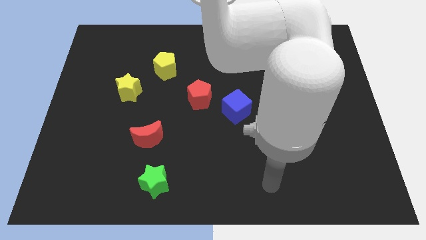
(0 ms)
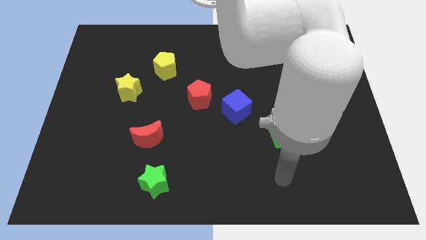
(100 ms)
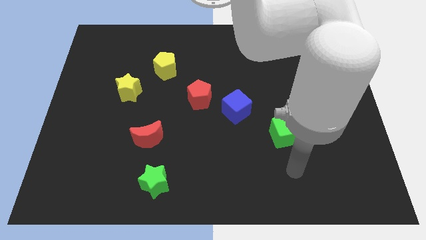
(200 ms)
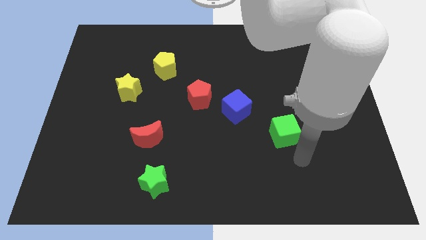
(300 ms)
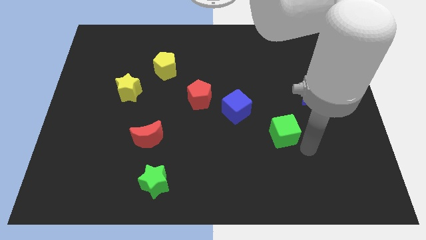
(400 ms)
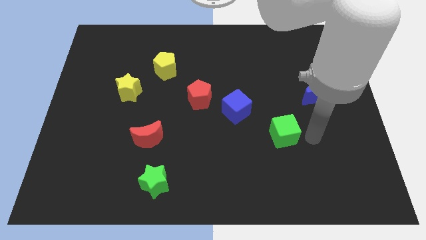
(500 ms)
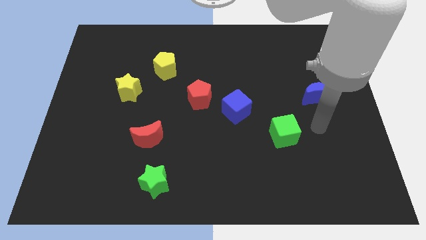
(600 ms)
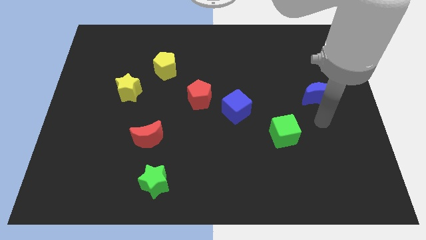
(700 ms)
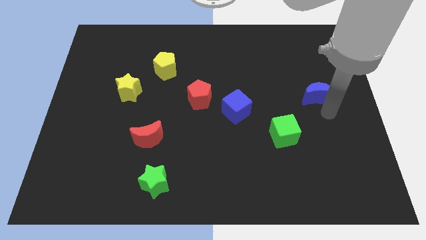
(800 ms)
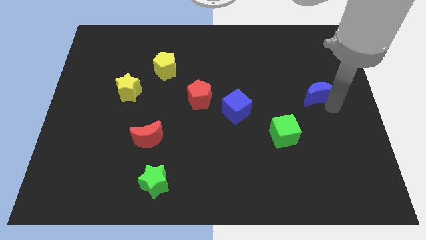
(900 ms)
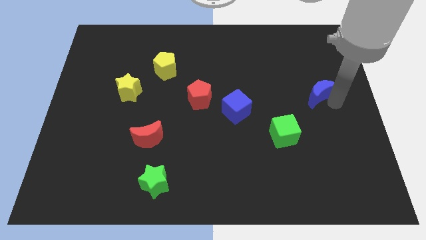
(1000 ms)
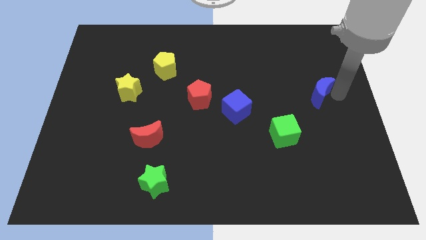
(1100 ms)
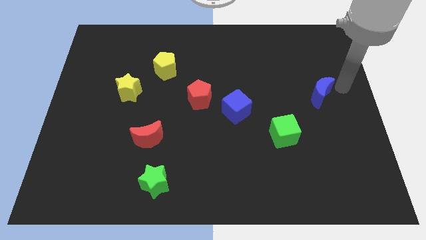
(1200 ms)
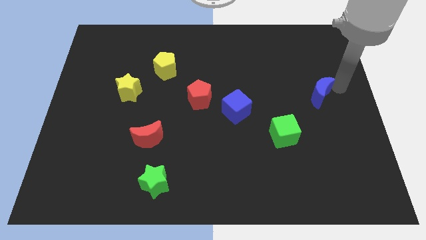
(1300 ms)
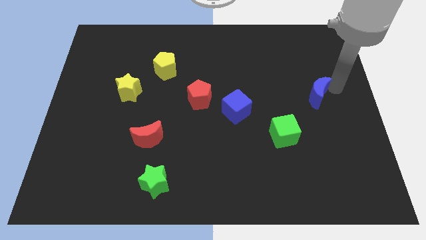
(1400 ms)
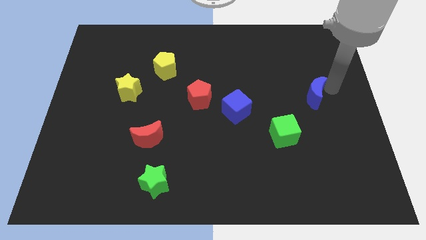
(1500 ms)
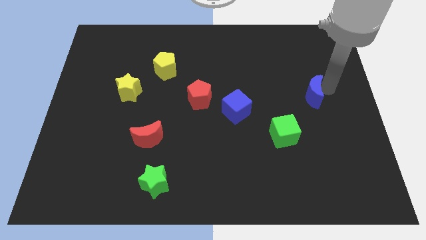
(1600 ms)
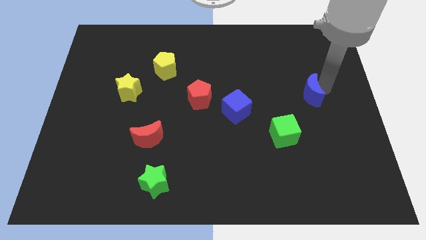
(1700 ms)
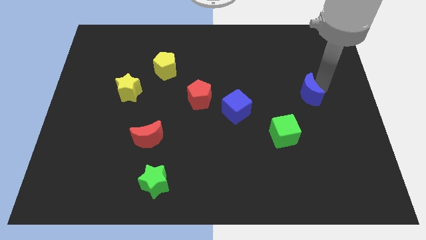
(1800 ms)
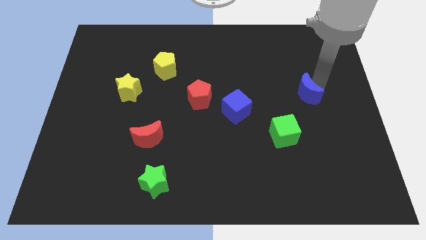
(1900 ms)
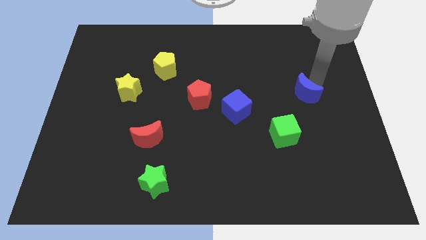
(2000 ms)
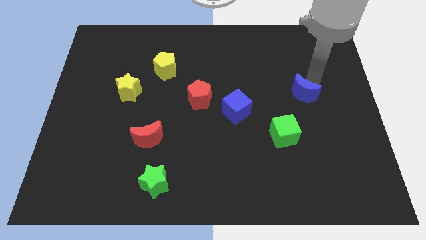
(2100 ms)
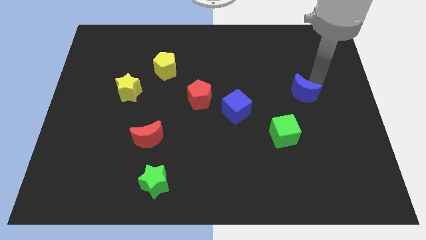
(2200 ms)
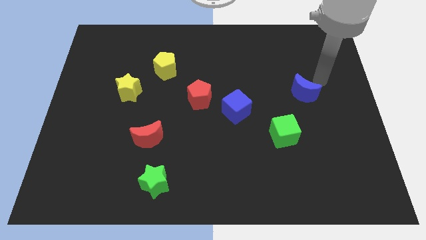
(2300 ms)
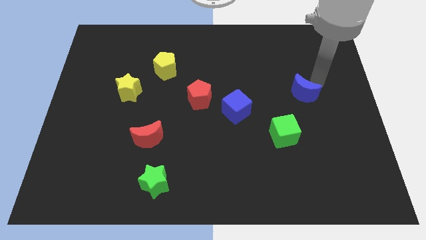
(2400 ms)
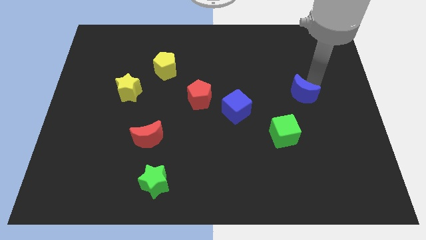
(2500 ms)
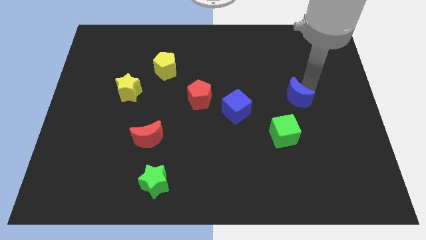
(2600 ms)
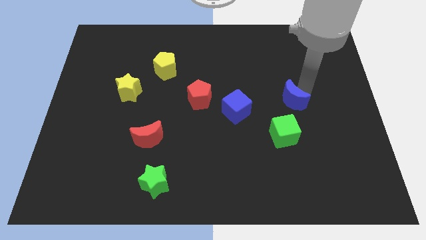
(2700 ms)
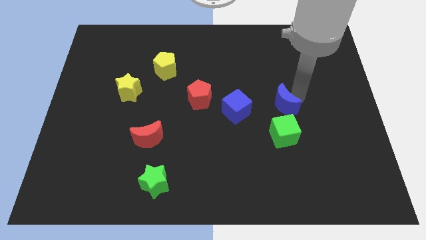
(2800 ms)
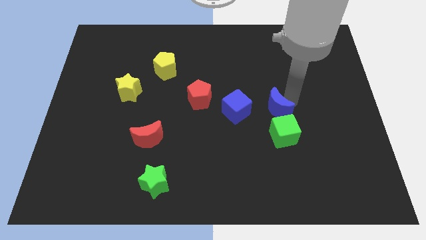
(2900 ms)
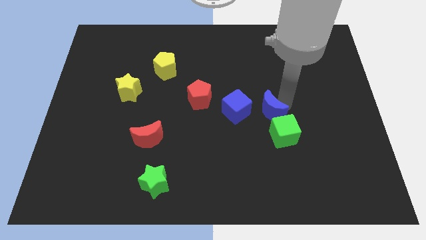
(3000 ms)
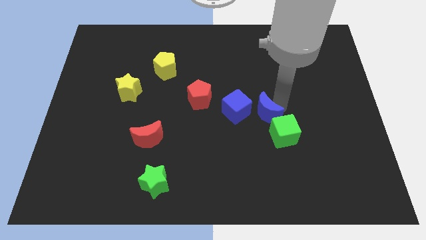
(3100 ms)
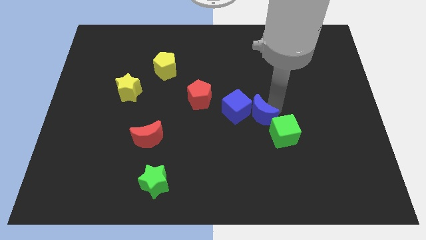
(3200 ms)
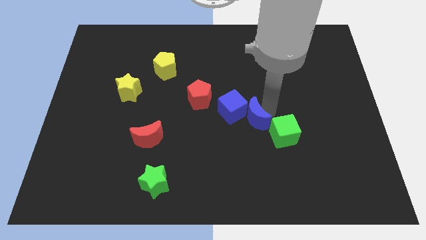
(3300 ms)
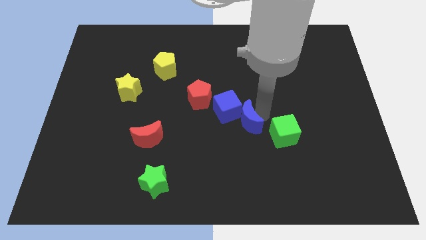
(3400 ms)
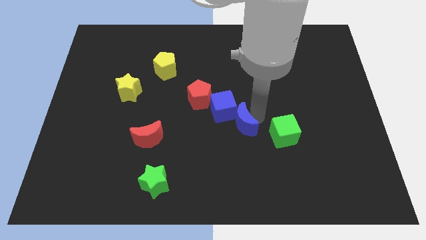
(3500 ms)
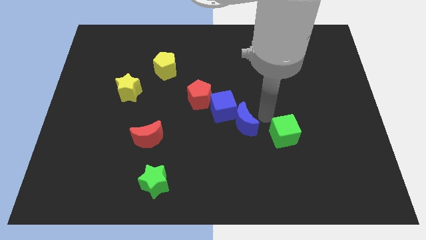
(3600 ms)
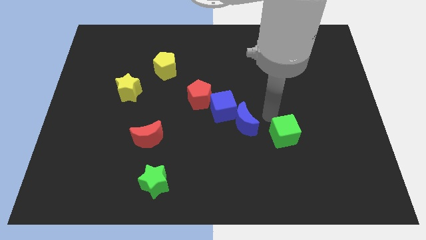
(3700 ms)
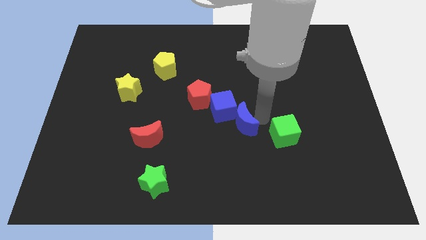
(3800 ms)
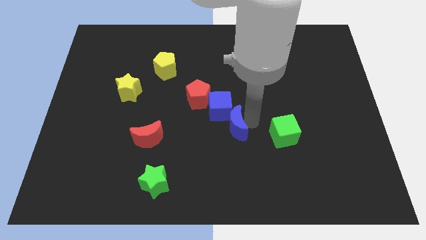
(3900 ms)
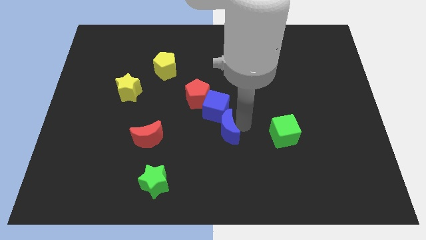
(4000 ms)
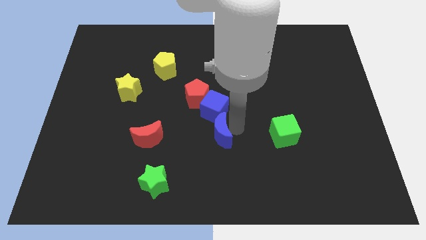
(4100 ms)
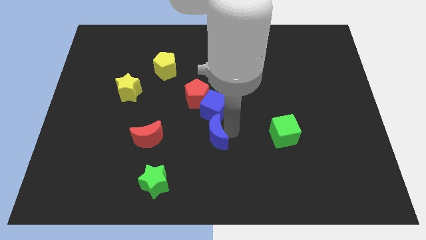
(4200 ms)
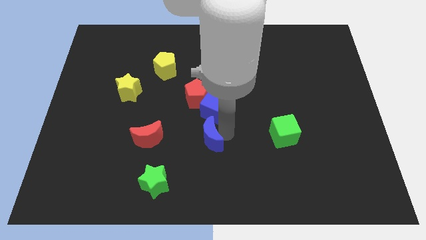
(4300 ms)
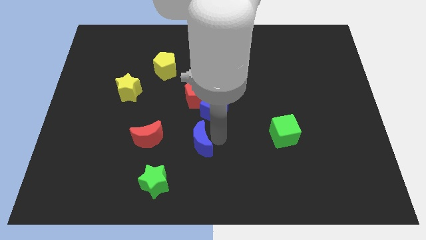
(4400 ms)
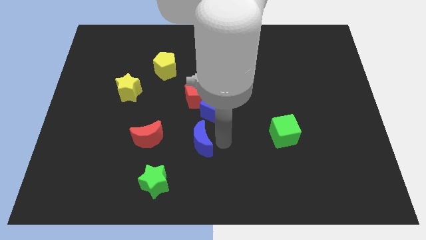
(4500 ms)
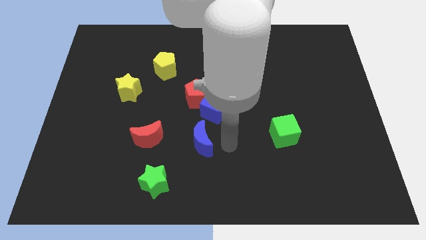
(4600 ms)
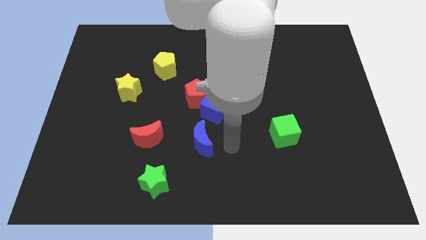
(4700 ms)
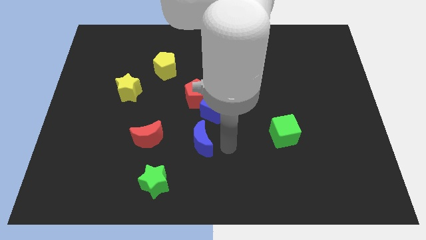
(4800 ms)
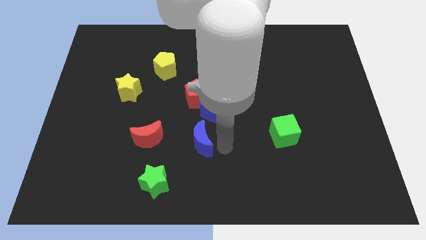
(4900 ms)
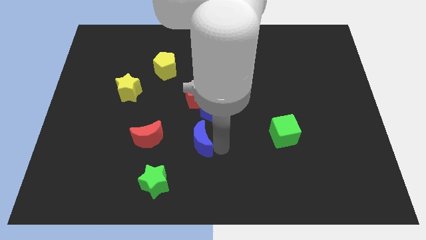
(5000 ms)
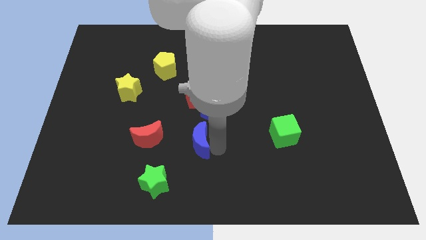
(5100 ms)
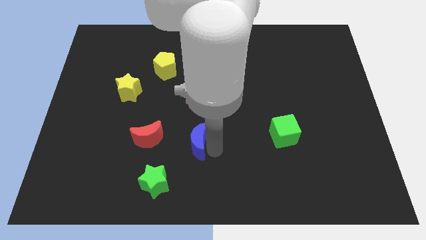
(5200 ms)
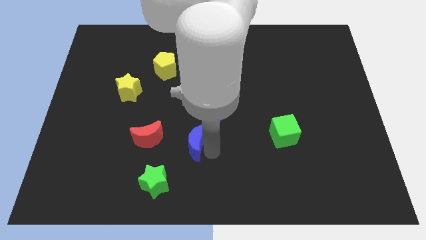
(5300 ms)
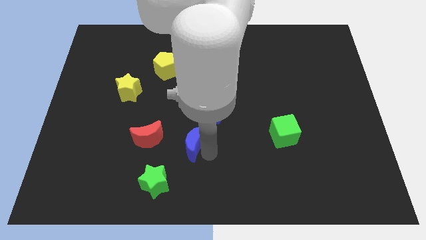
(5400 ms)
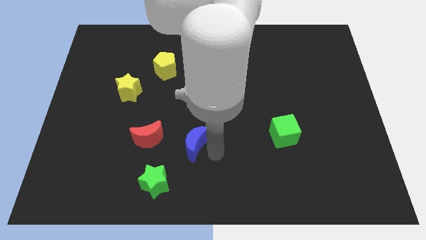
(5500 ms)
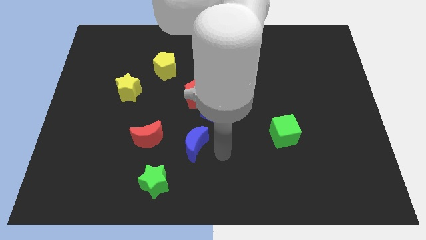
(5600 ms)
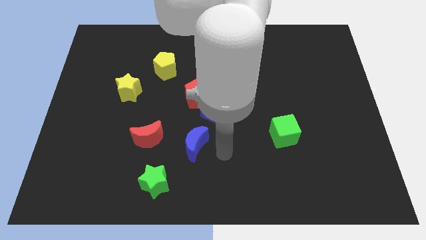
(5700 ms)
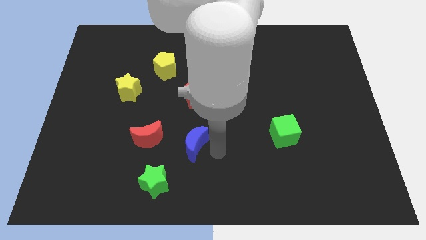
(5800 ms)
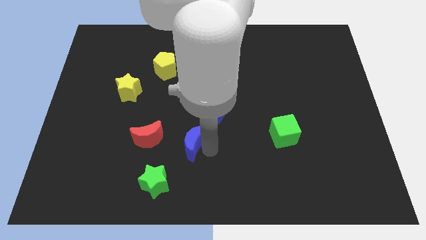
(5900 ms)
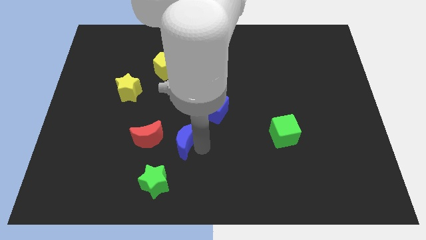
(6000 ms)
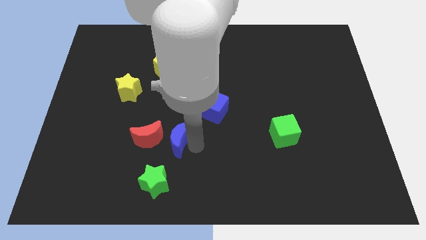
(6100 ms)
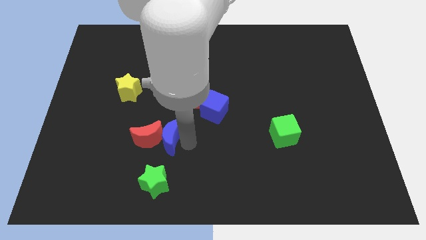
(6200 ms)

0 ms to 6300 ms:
put the blue moon towards the red moon

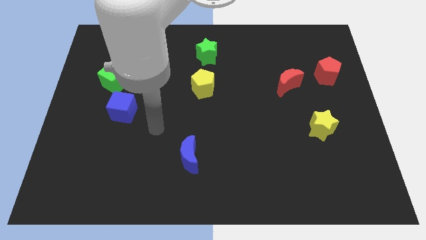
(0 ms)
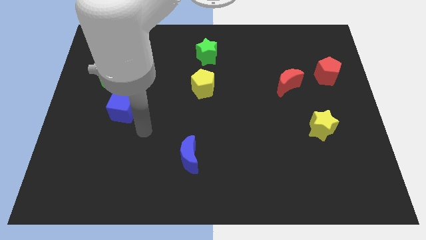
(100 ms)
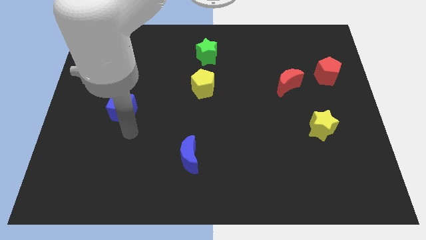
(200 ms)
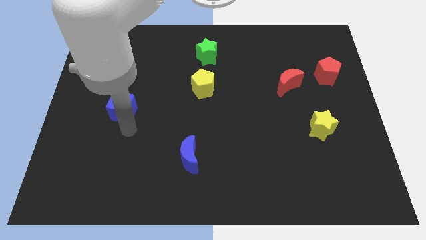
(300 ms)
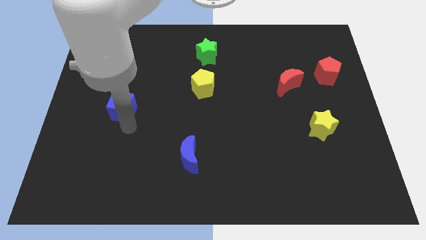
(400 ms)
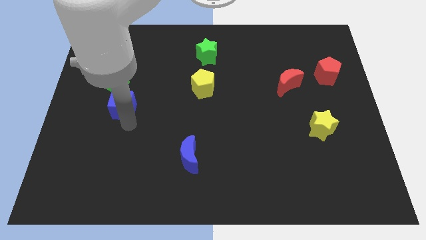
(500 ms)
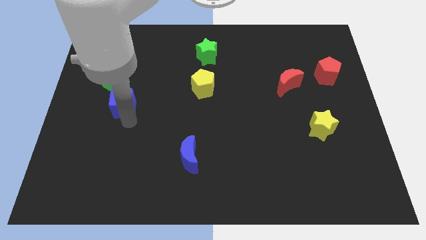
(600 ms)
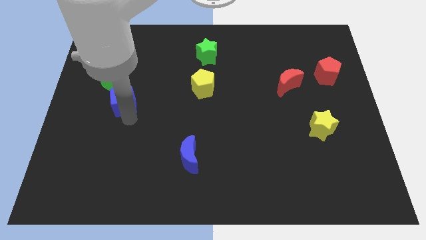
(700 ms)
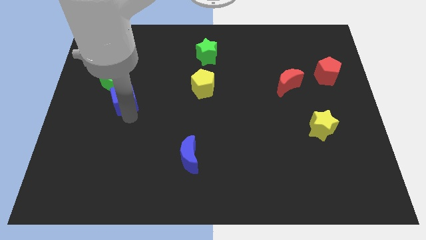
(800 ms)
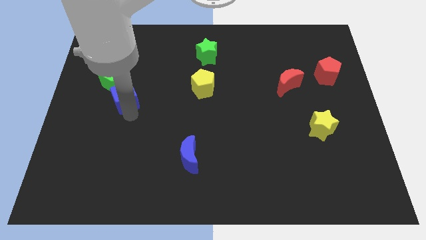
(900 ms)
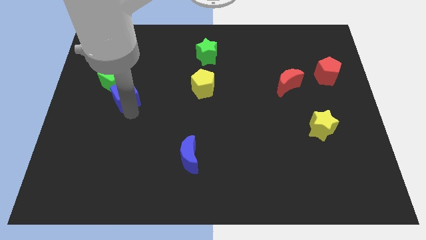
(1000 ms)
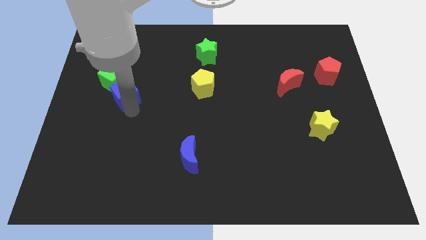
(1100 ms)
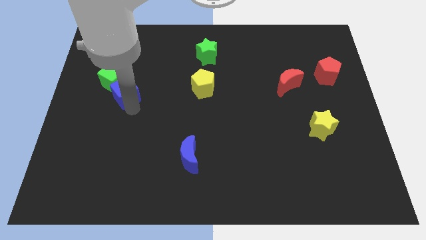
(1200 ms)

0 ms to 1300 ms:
put the blue cube towards the green cube
